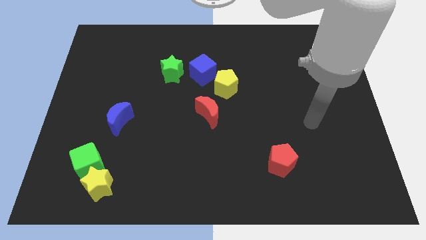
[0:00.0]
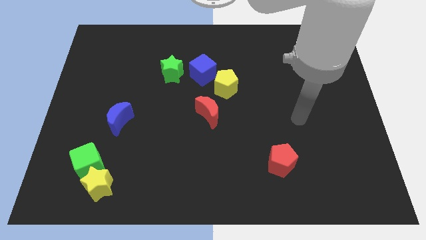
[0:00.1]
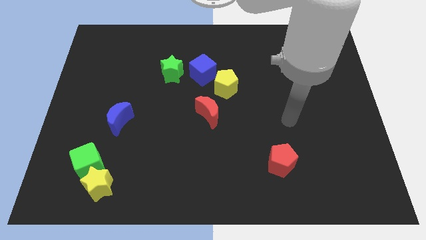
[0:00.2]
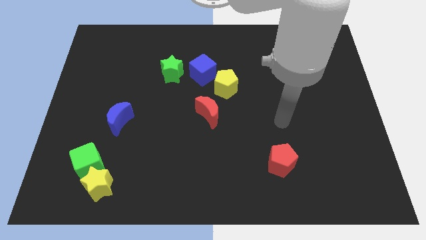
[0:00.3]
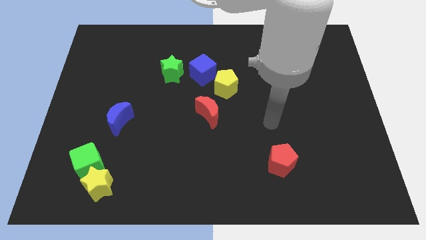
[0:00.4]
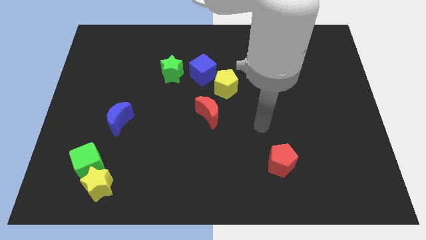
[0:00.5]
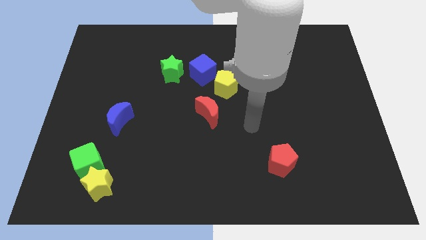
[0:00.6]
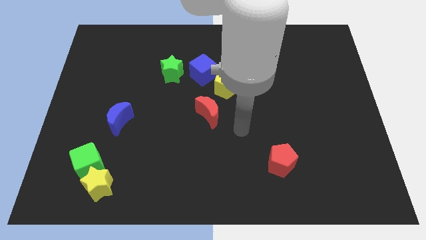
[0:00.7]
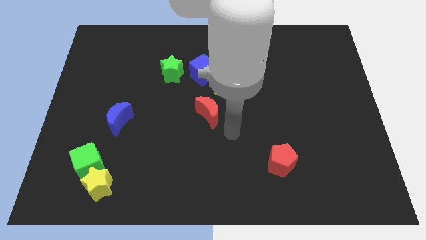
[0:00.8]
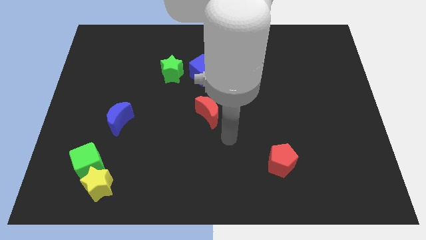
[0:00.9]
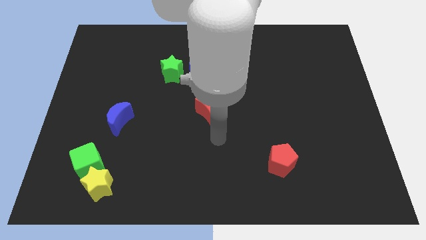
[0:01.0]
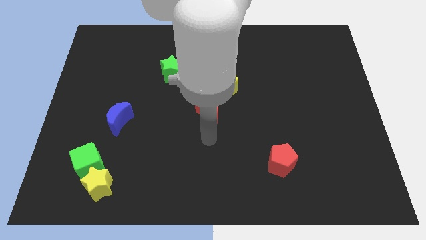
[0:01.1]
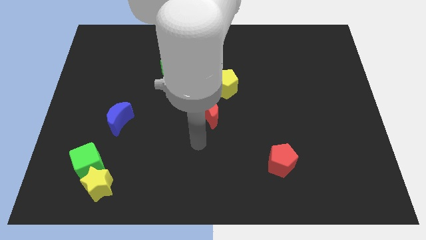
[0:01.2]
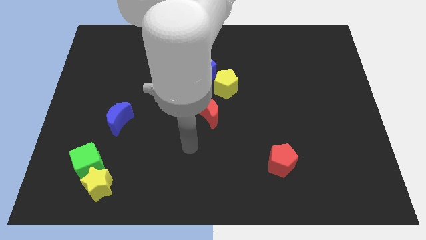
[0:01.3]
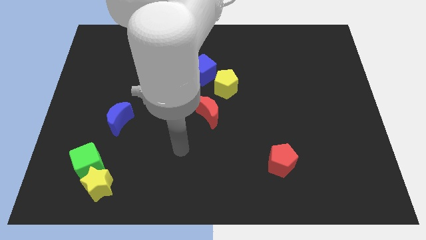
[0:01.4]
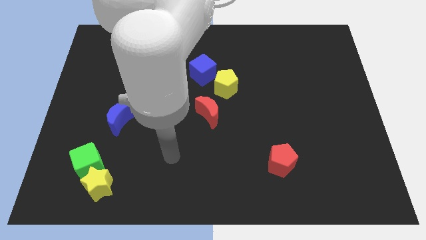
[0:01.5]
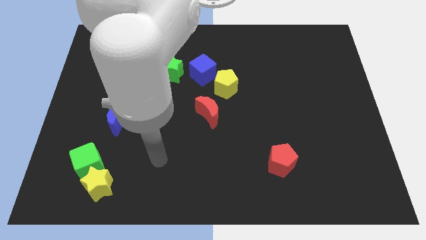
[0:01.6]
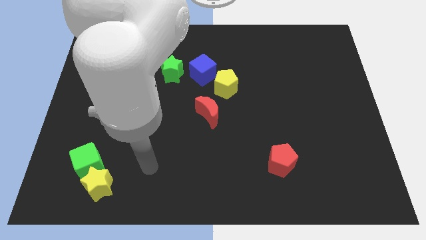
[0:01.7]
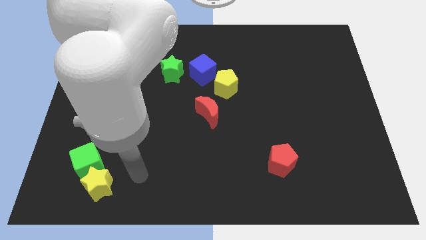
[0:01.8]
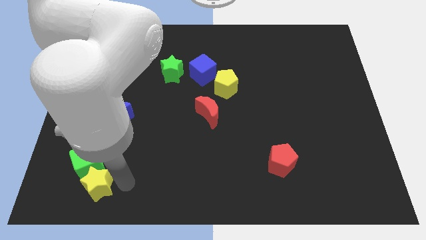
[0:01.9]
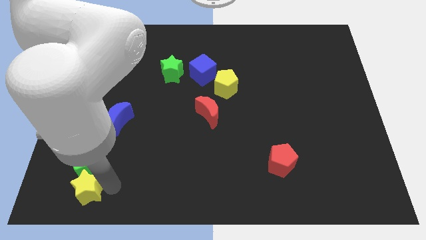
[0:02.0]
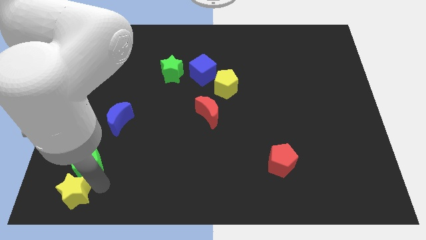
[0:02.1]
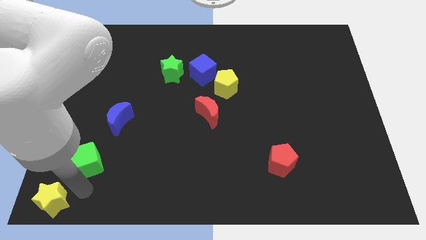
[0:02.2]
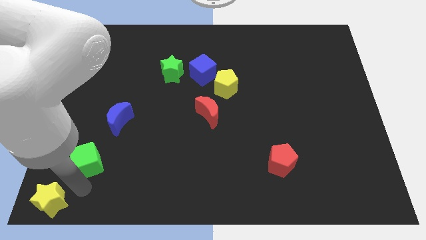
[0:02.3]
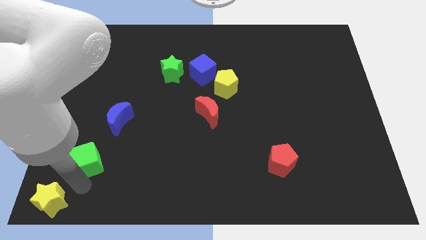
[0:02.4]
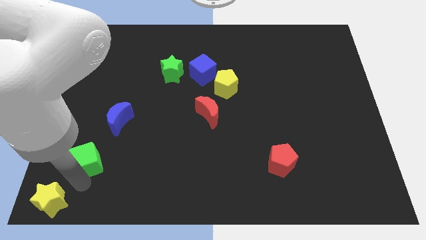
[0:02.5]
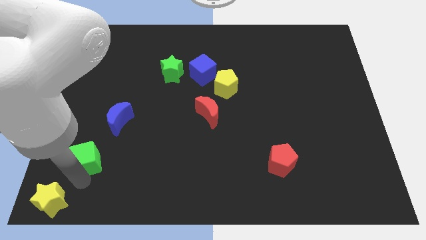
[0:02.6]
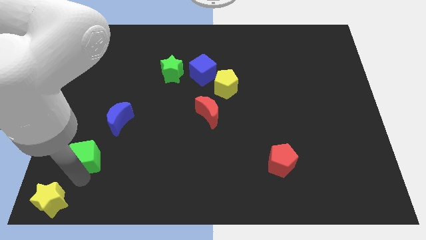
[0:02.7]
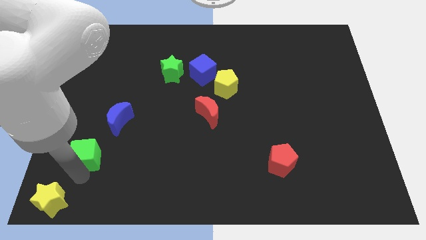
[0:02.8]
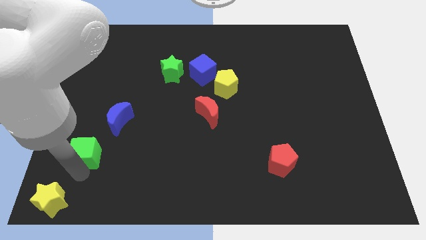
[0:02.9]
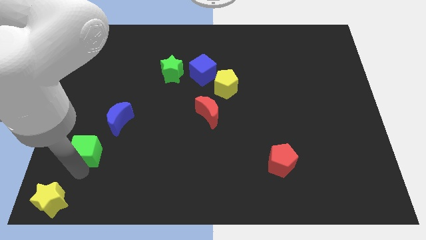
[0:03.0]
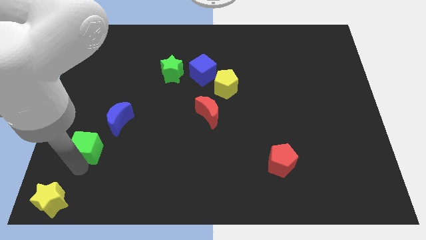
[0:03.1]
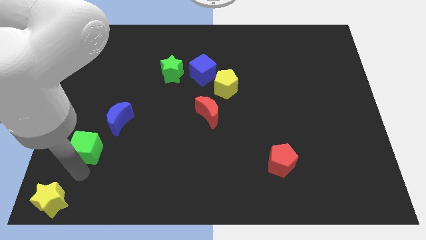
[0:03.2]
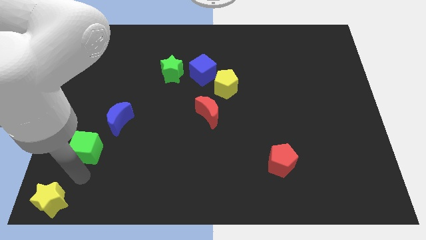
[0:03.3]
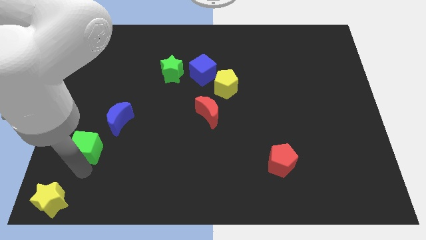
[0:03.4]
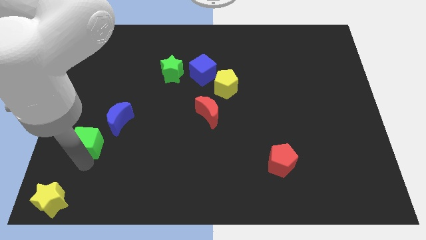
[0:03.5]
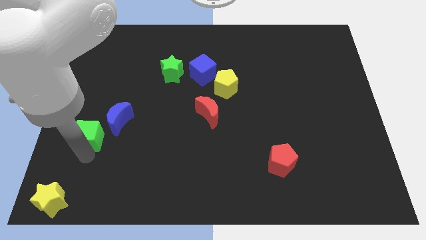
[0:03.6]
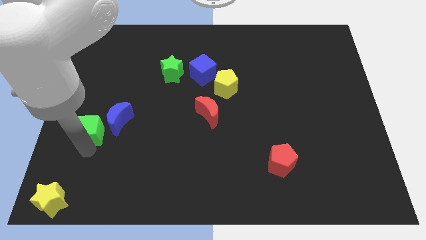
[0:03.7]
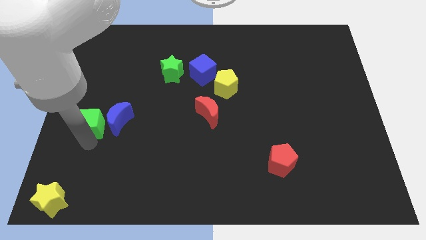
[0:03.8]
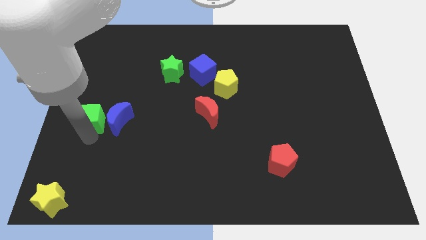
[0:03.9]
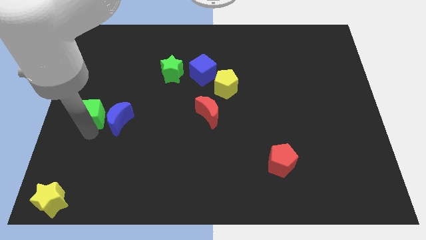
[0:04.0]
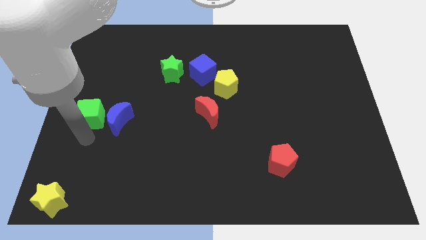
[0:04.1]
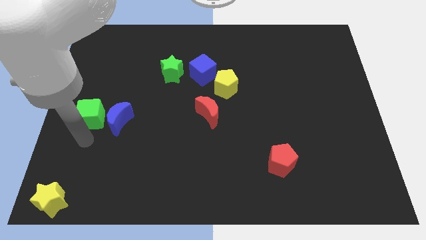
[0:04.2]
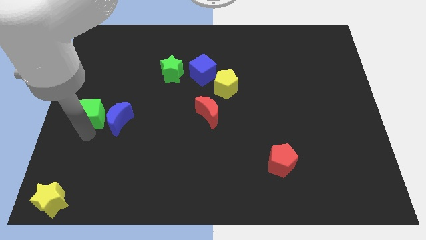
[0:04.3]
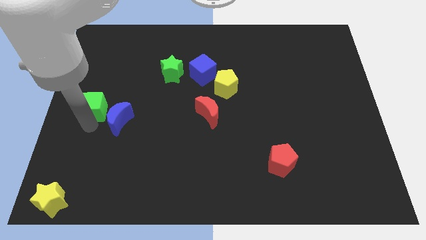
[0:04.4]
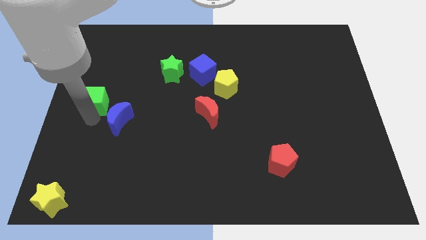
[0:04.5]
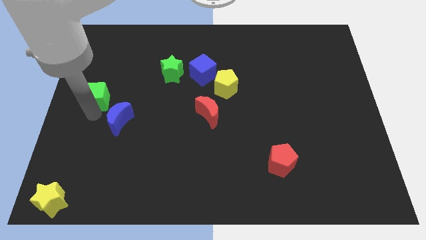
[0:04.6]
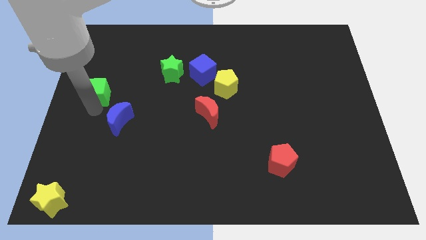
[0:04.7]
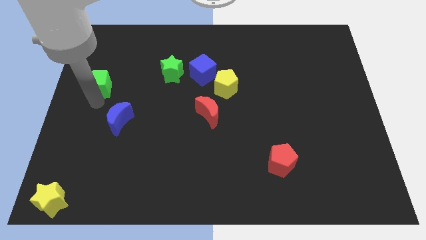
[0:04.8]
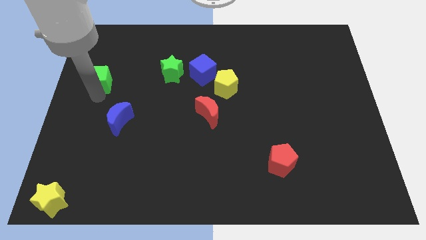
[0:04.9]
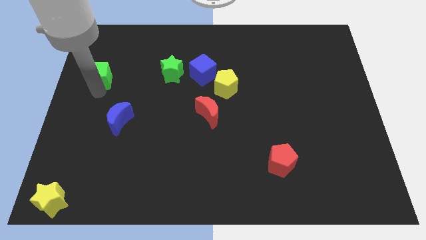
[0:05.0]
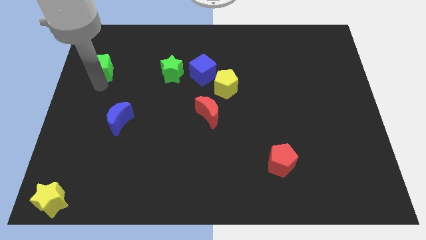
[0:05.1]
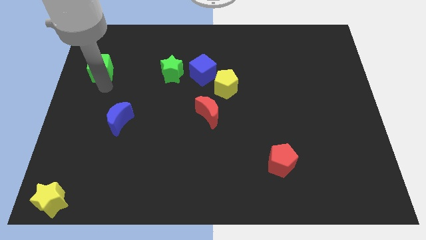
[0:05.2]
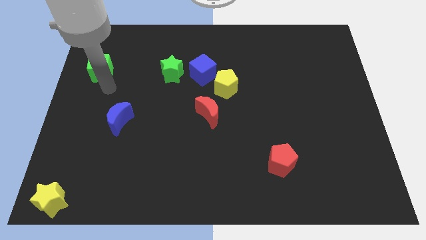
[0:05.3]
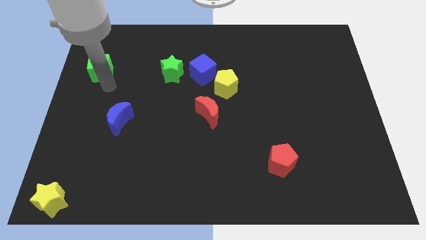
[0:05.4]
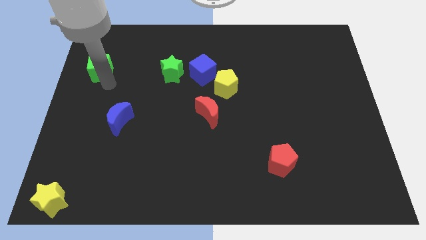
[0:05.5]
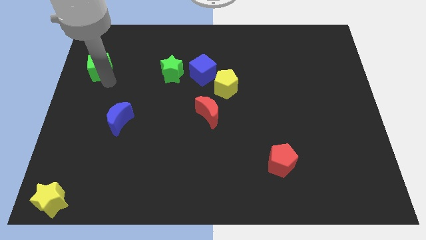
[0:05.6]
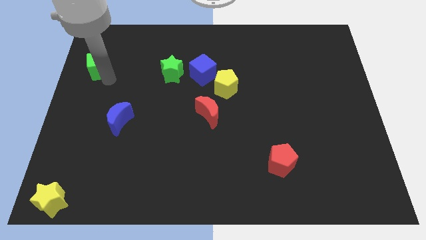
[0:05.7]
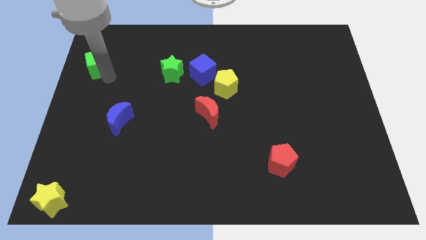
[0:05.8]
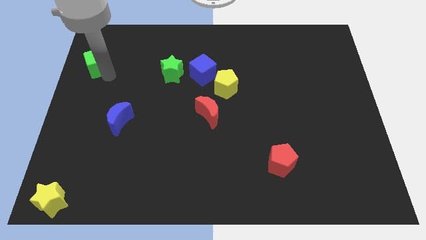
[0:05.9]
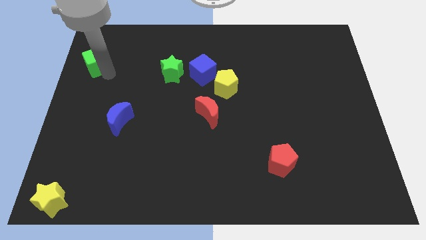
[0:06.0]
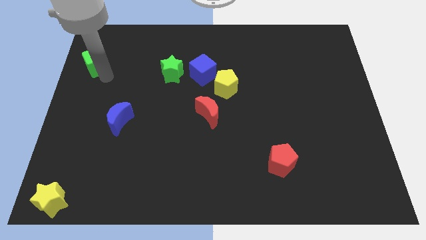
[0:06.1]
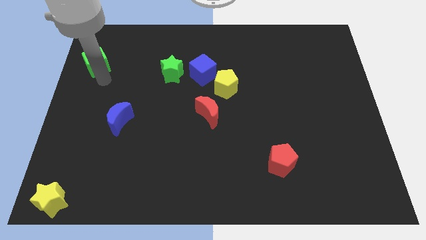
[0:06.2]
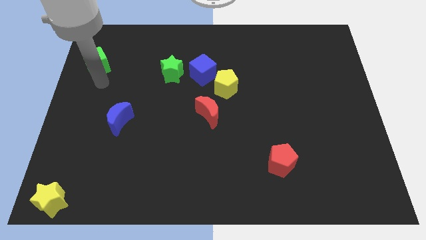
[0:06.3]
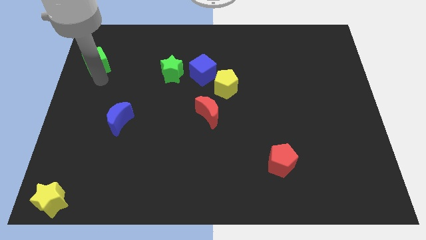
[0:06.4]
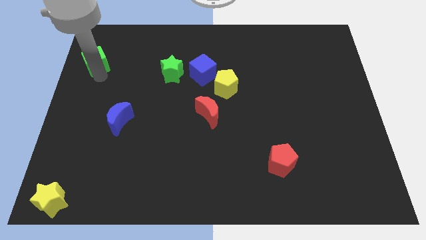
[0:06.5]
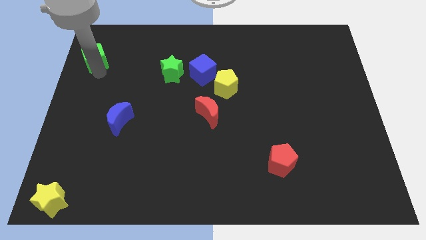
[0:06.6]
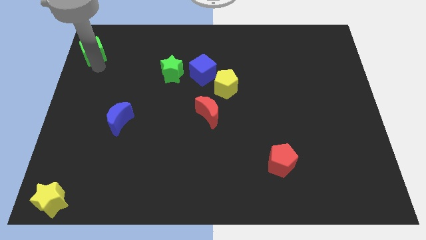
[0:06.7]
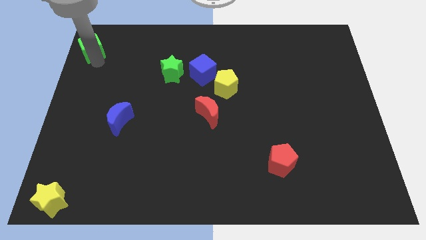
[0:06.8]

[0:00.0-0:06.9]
put the green cube to the top left corner
